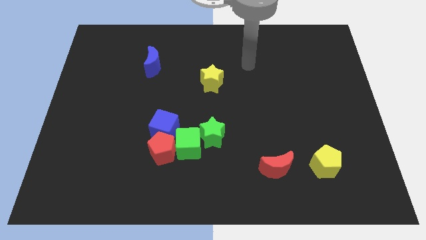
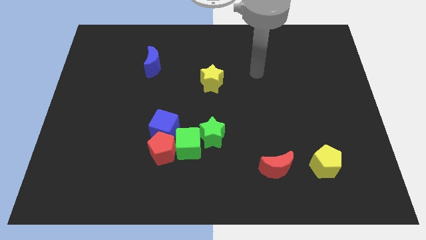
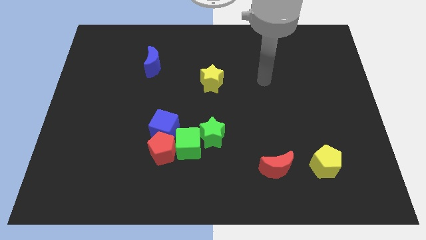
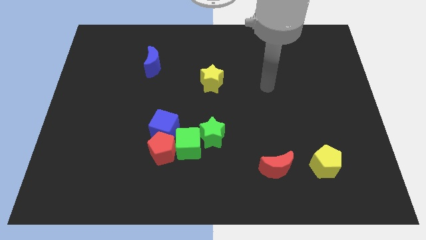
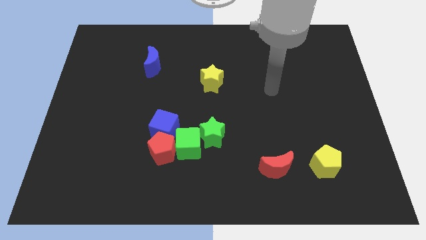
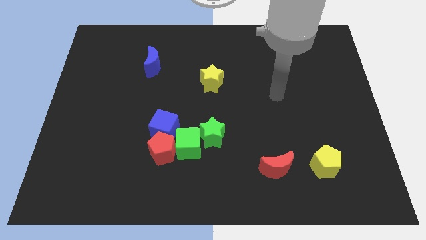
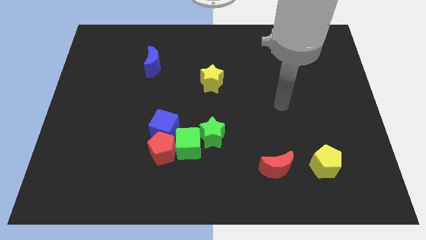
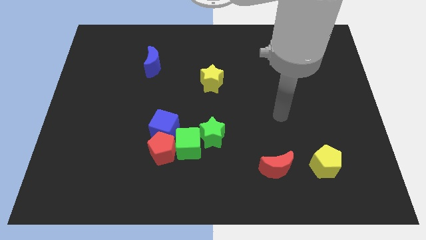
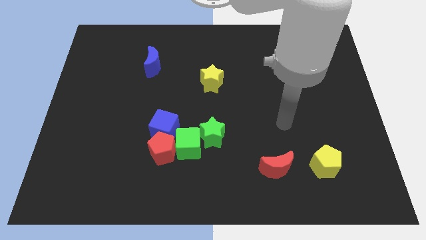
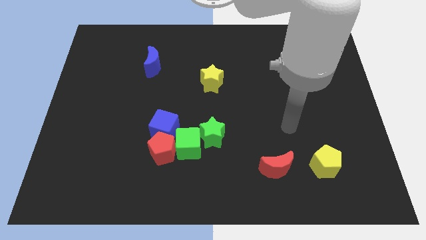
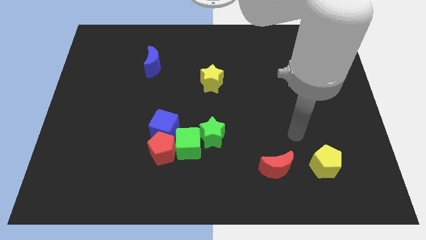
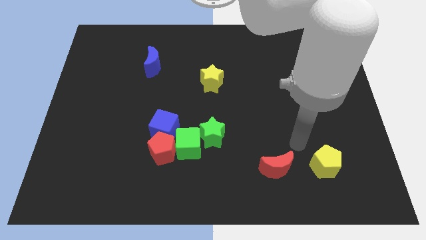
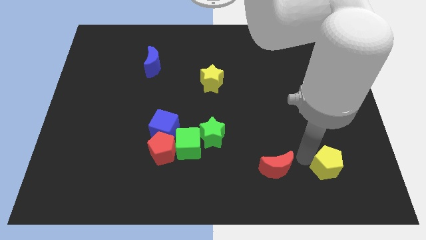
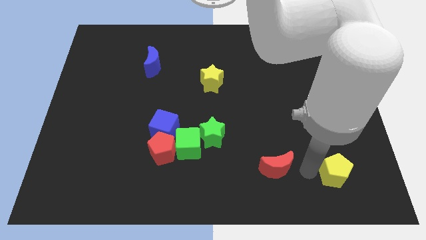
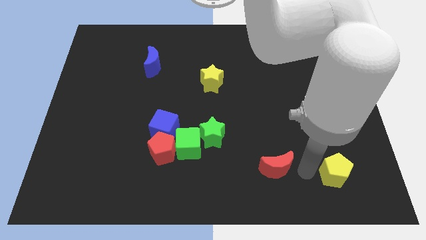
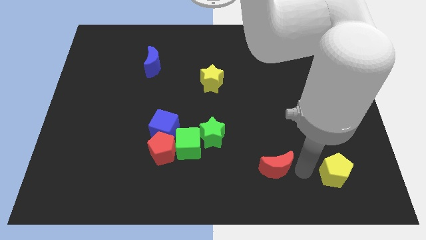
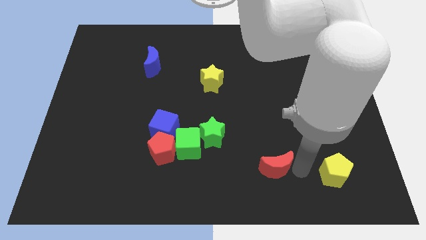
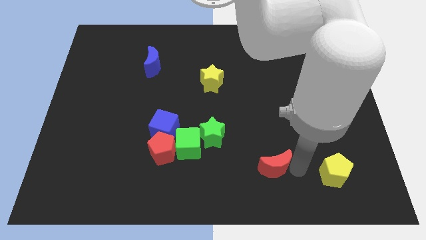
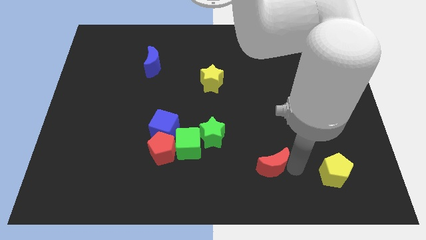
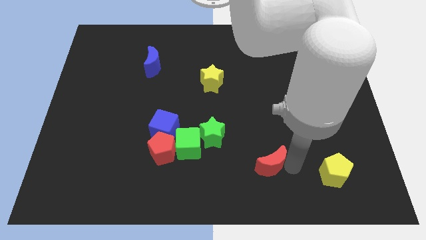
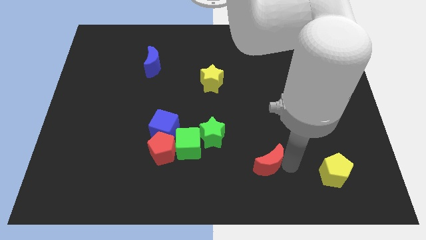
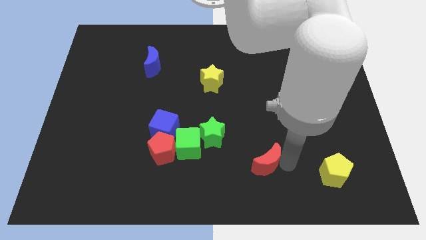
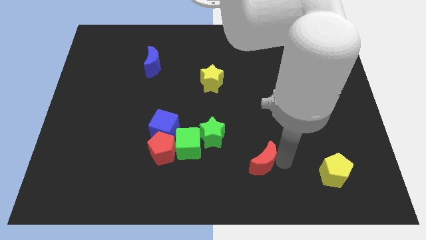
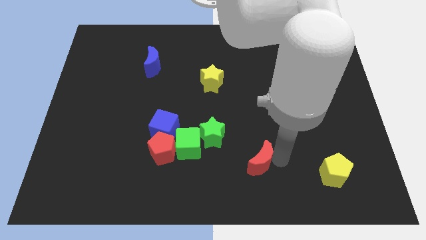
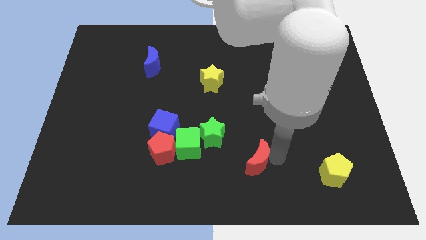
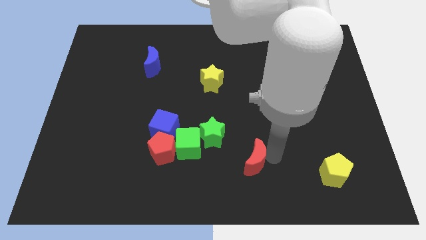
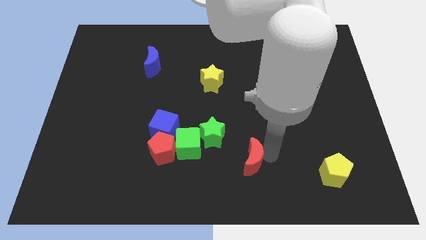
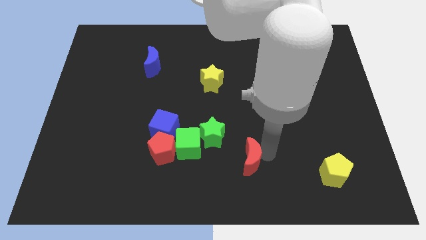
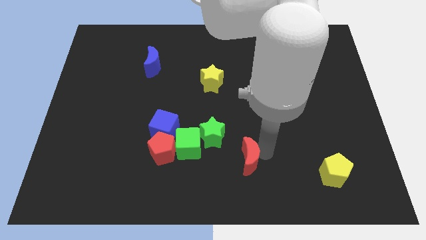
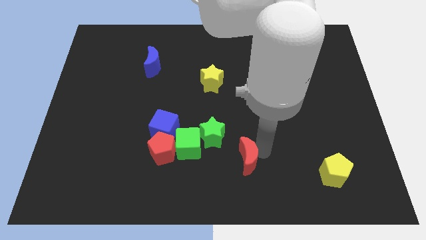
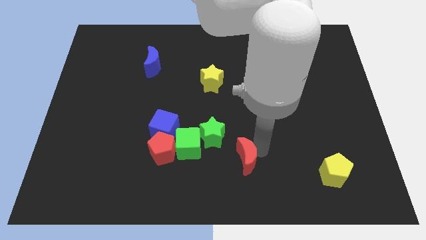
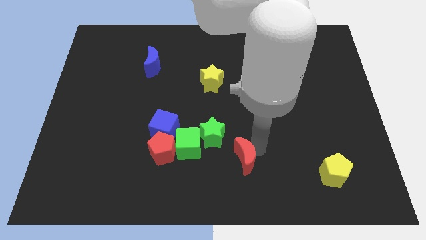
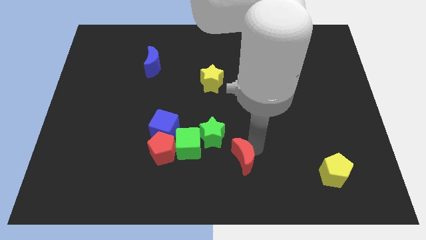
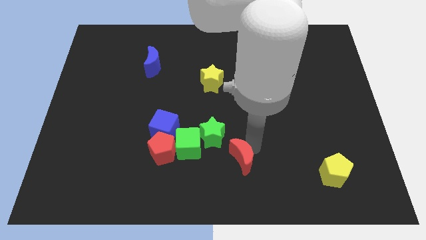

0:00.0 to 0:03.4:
slightly slide the red moon left

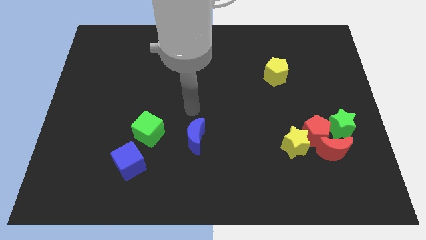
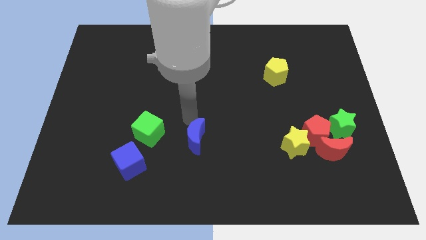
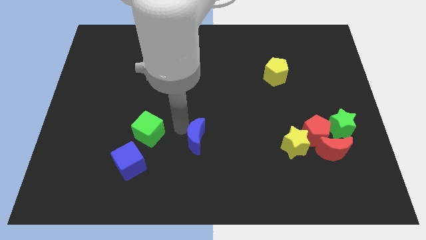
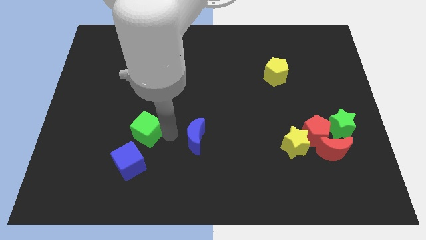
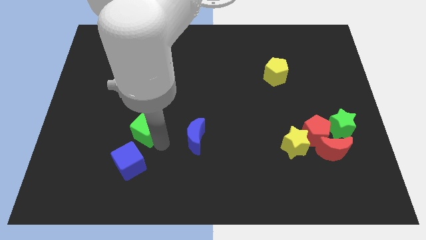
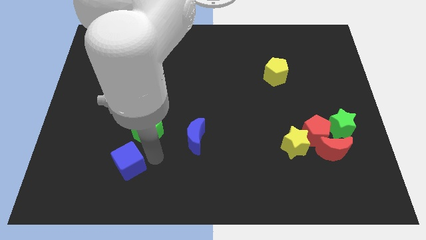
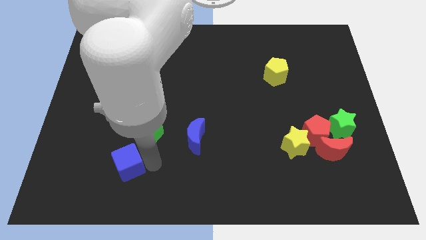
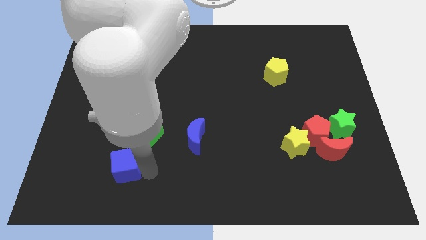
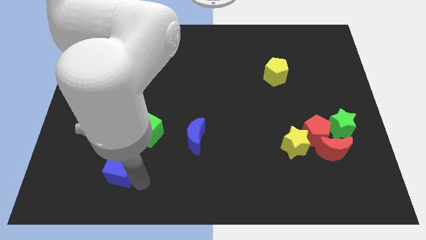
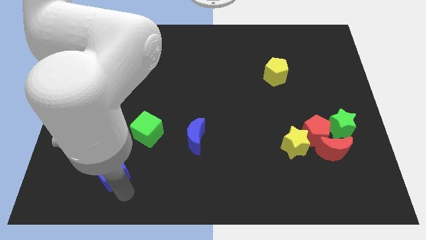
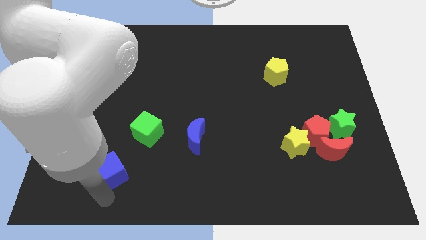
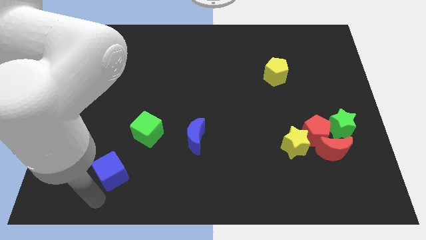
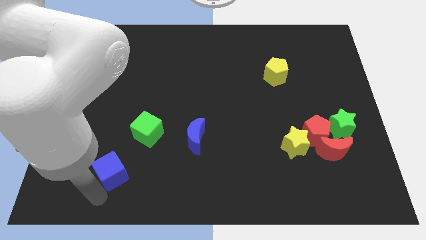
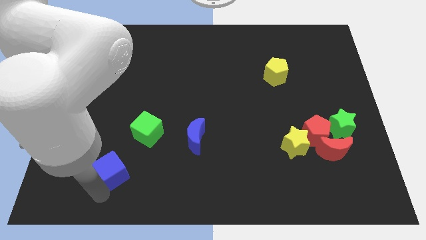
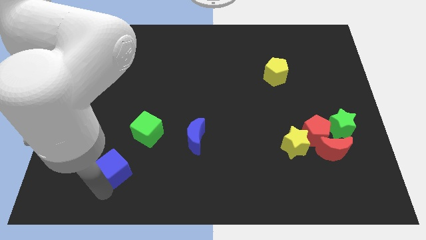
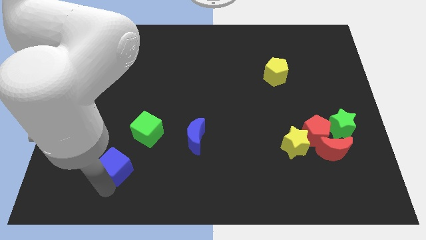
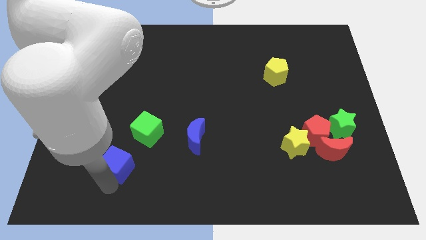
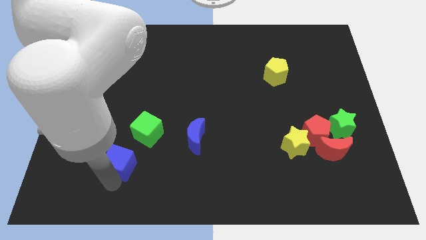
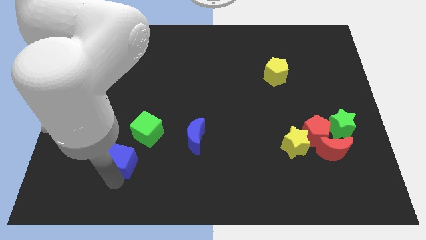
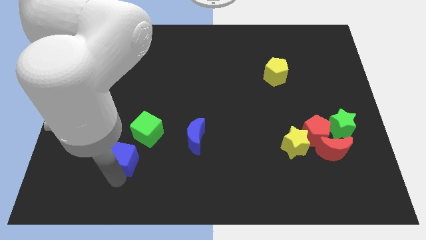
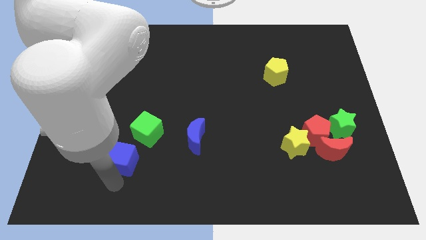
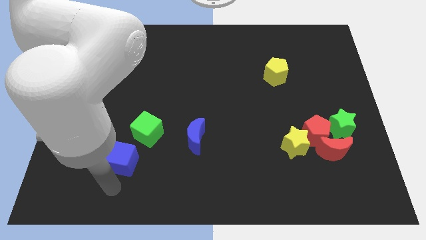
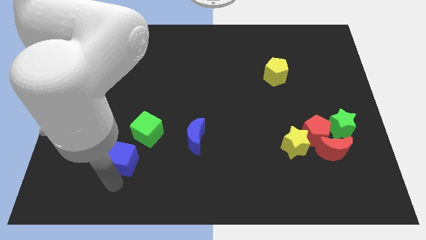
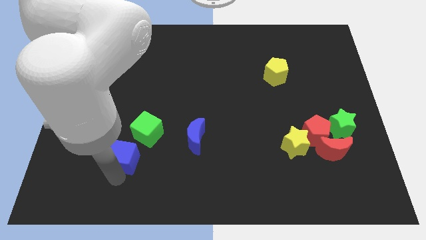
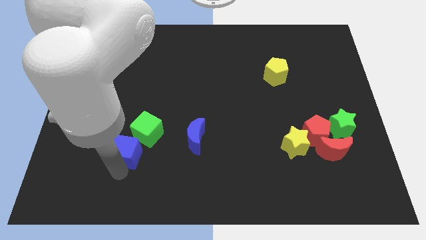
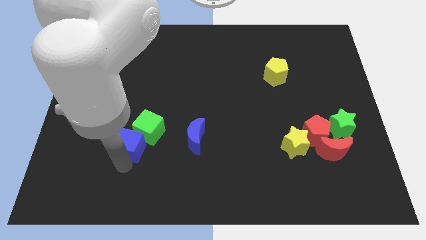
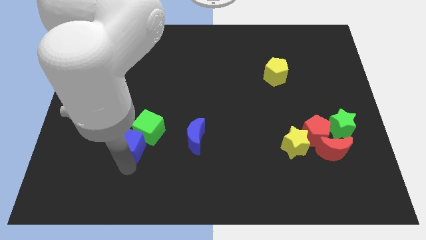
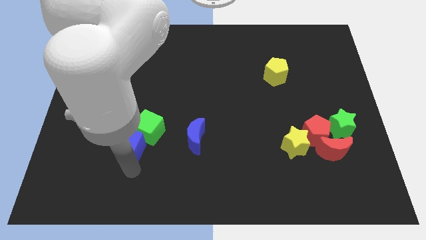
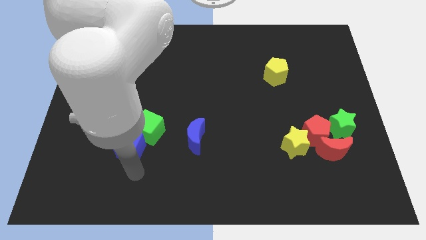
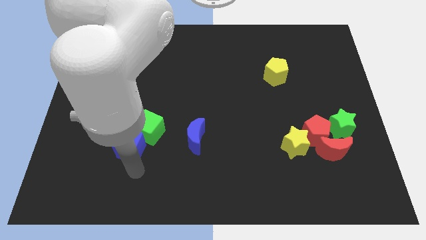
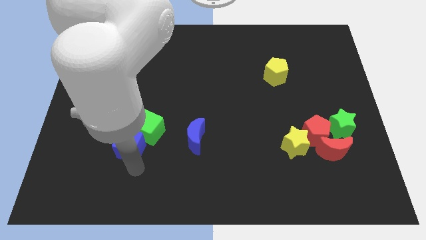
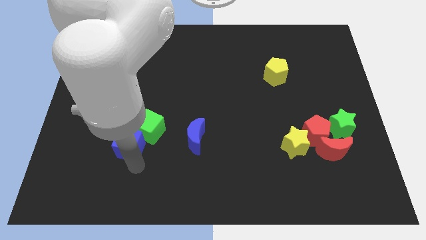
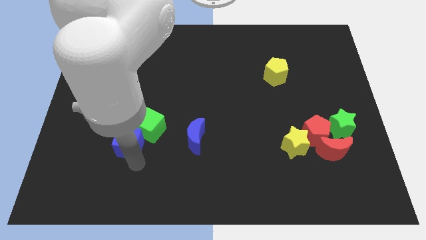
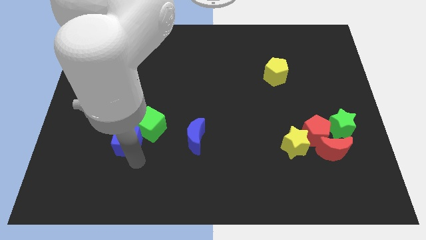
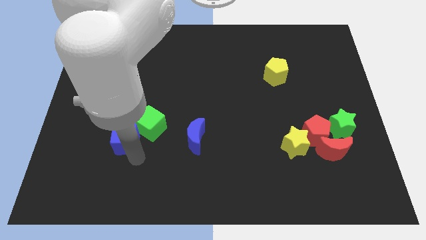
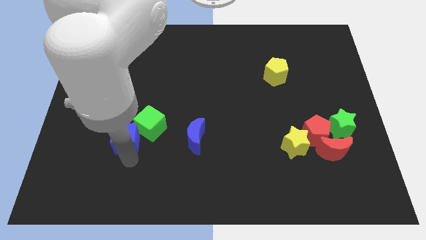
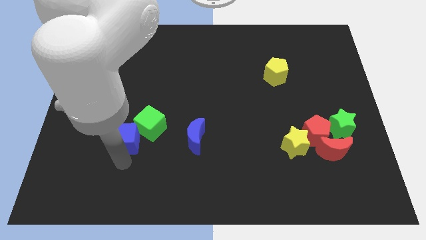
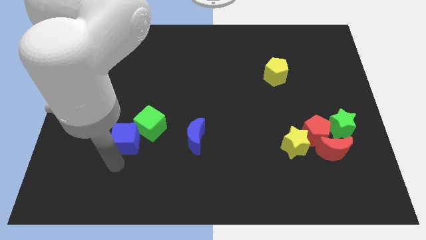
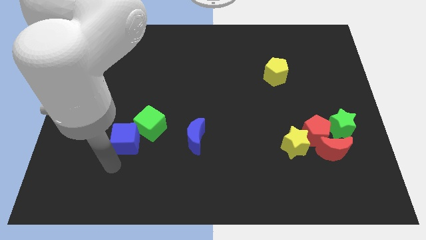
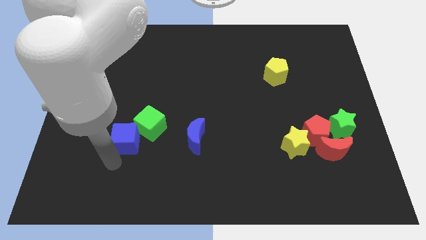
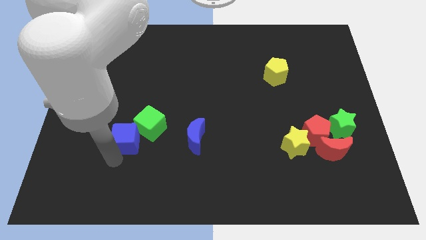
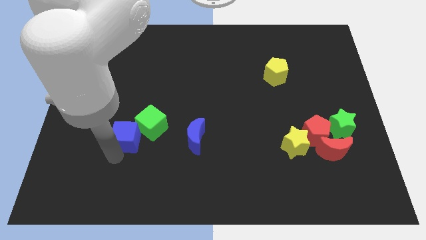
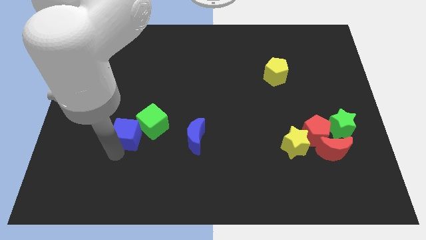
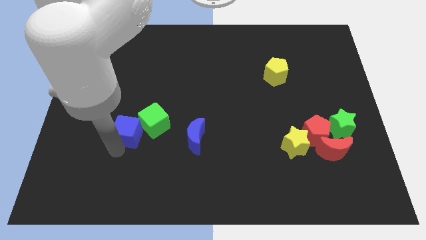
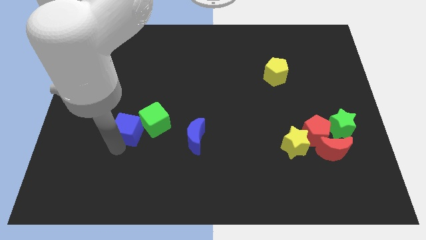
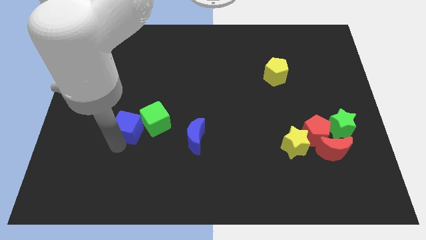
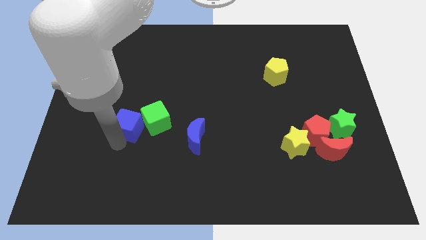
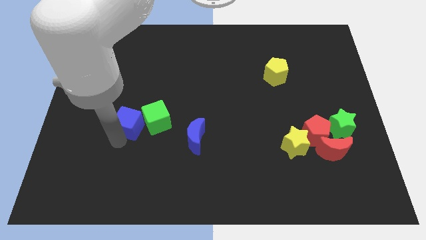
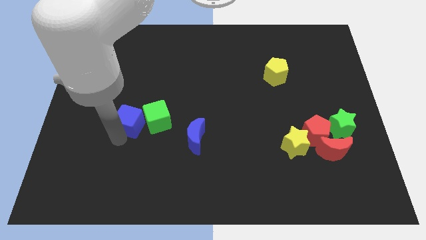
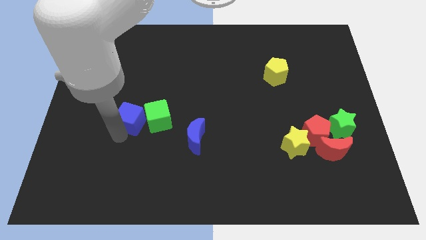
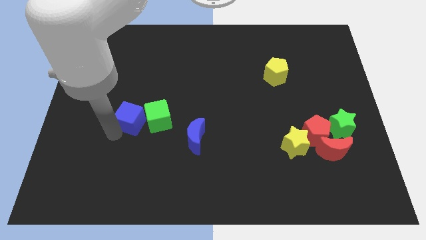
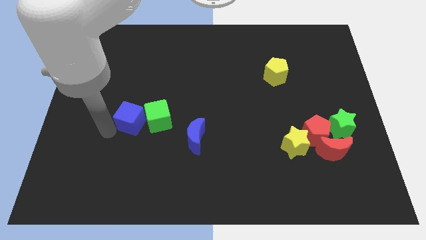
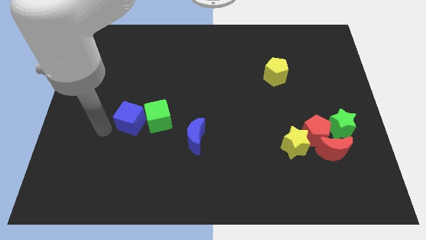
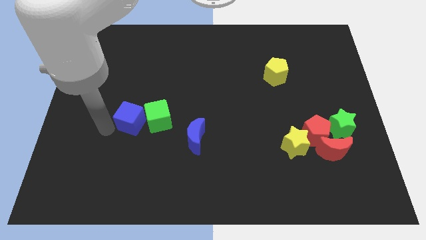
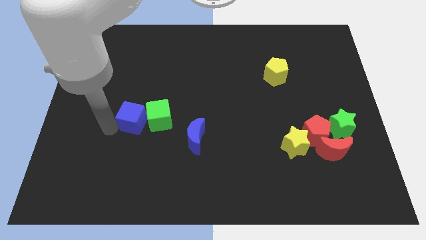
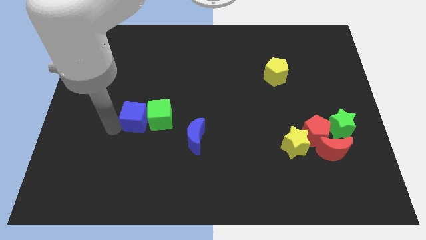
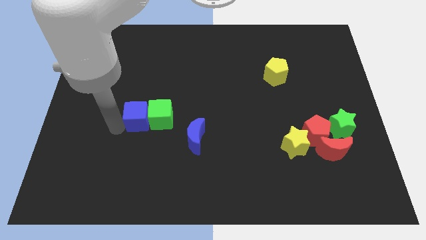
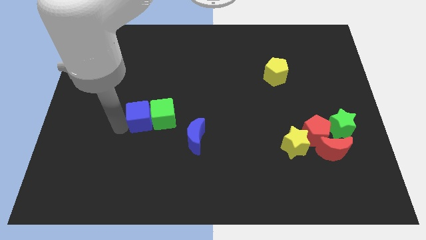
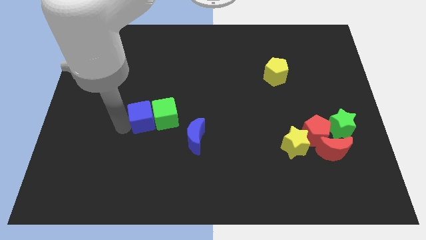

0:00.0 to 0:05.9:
move the blue cube a little bit upwards and right
